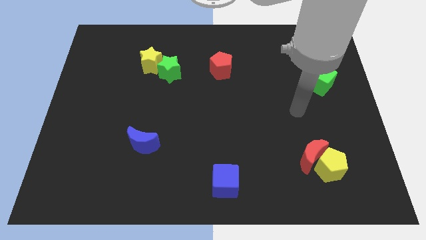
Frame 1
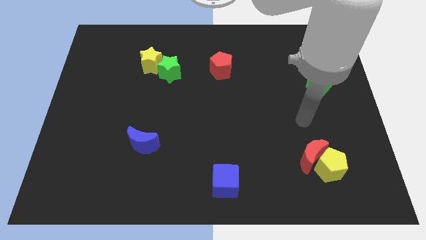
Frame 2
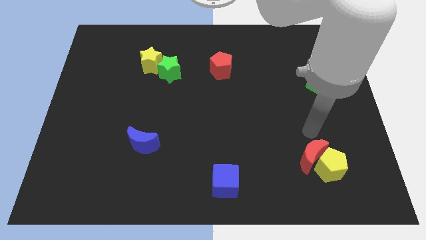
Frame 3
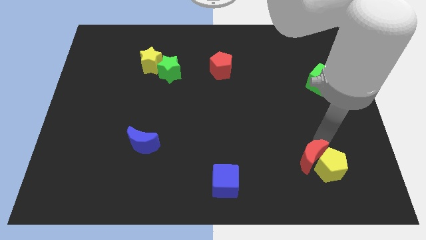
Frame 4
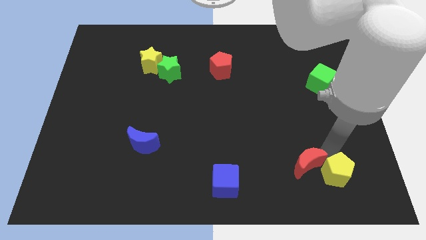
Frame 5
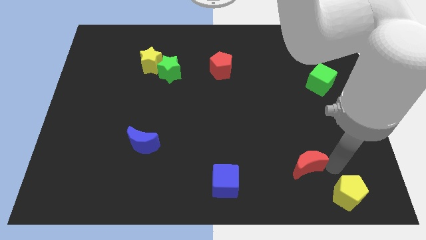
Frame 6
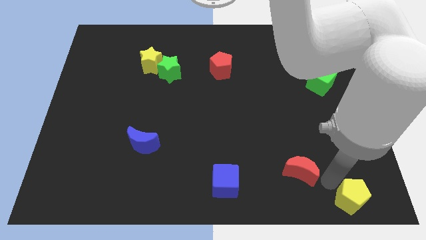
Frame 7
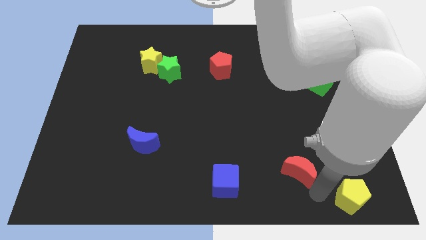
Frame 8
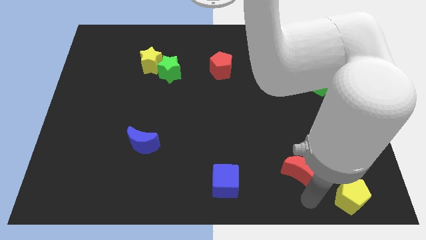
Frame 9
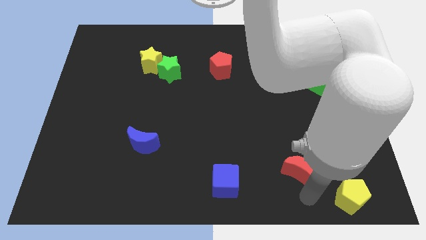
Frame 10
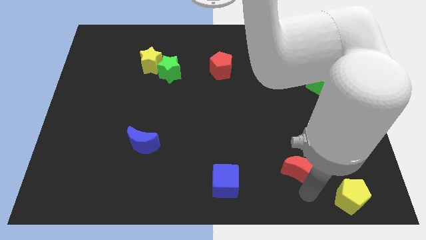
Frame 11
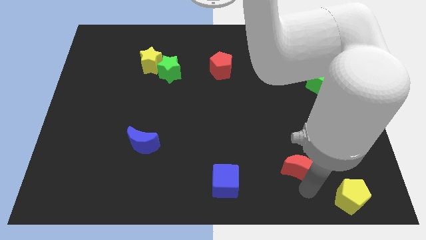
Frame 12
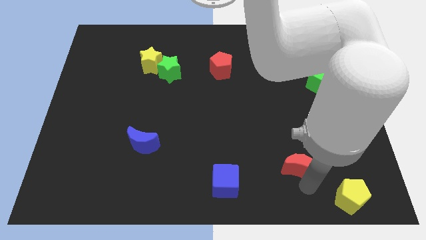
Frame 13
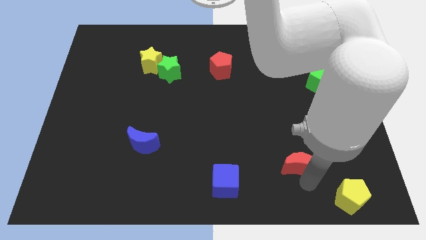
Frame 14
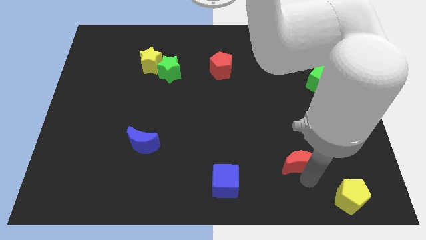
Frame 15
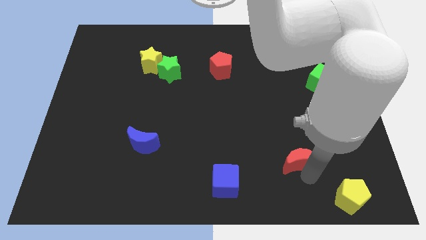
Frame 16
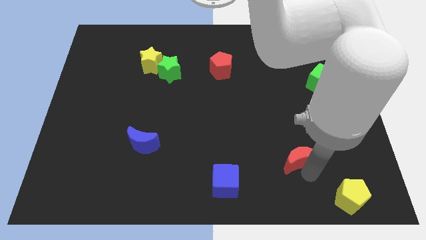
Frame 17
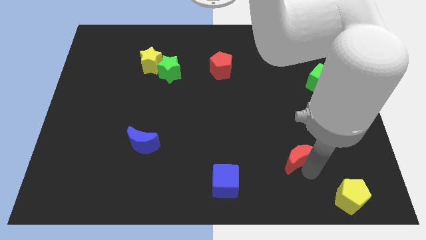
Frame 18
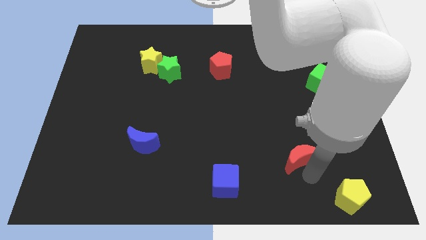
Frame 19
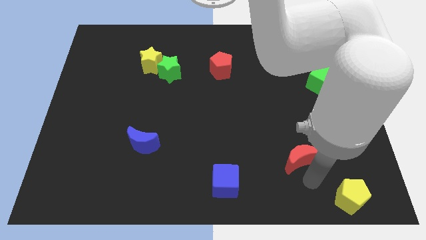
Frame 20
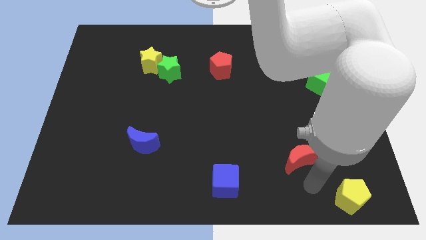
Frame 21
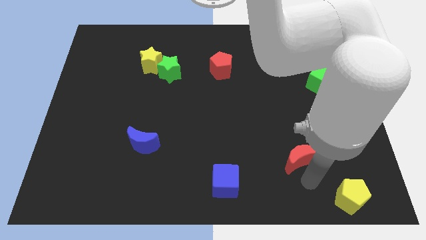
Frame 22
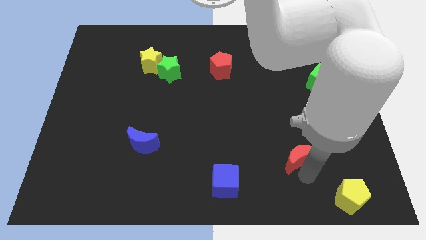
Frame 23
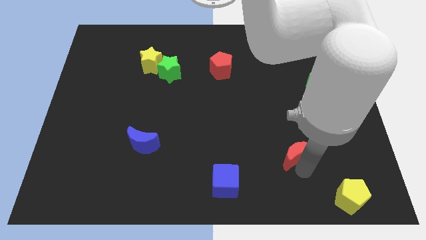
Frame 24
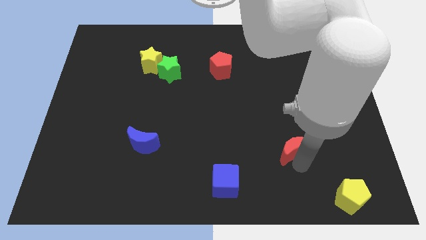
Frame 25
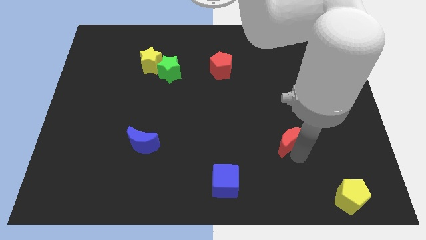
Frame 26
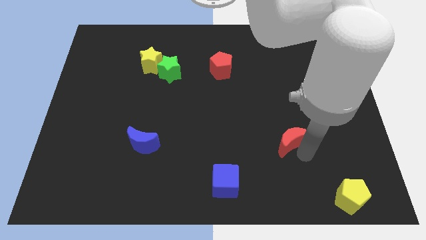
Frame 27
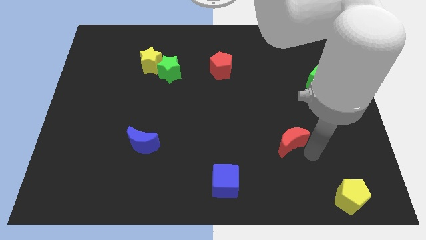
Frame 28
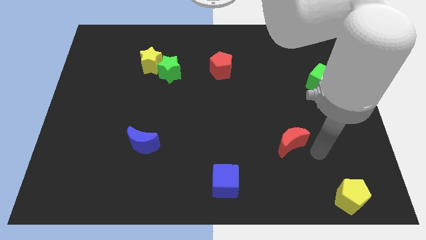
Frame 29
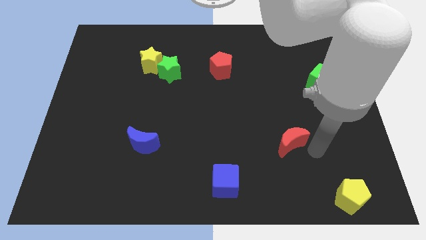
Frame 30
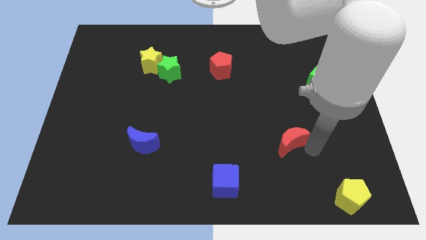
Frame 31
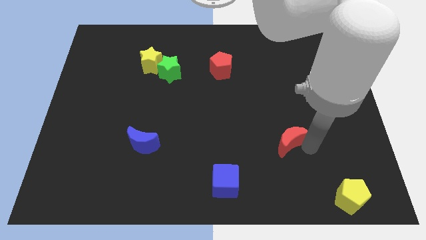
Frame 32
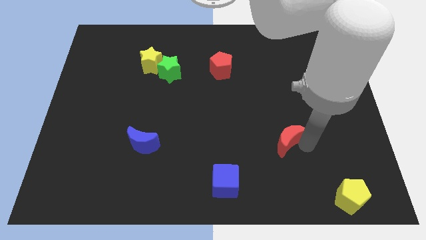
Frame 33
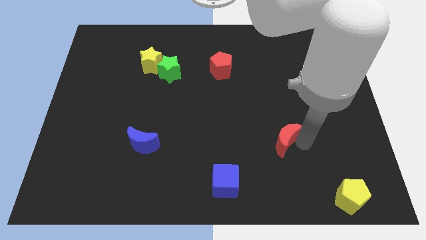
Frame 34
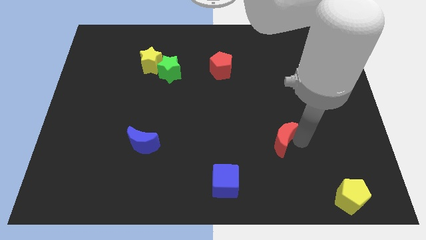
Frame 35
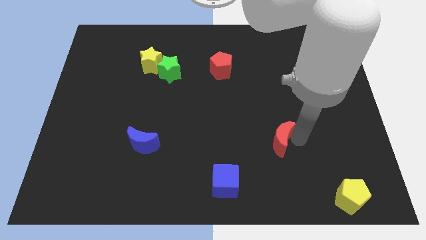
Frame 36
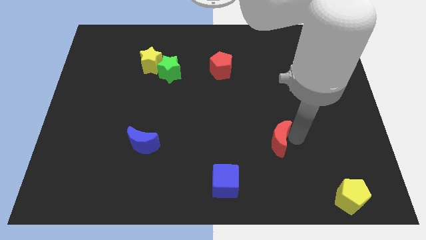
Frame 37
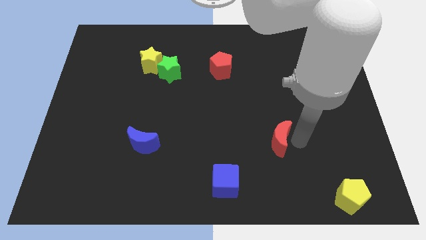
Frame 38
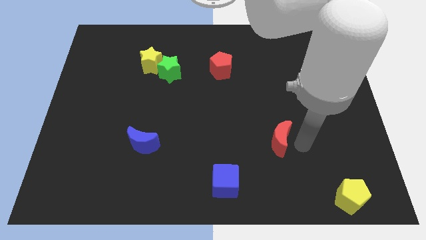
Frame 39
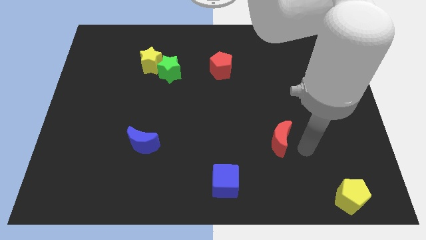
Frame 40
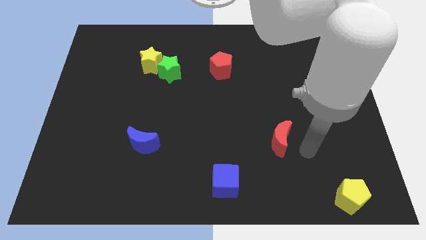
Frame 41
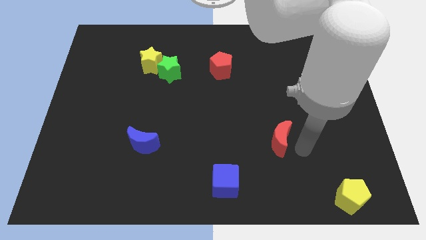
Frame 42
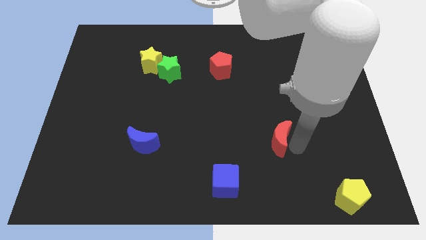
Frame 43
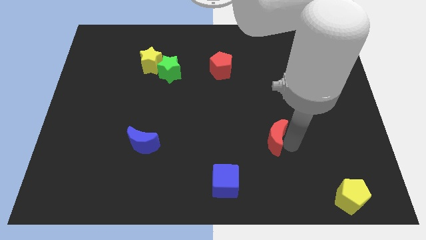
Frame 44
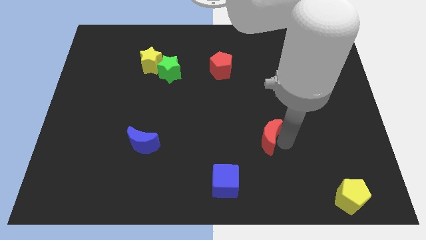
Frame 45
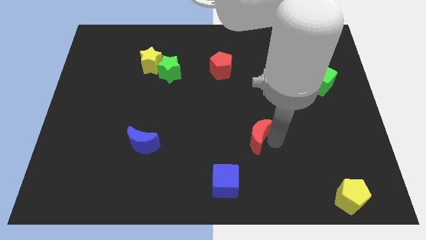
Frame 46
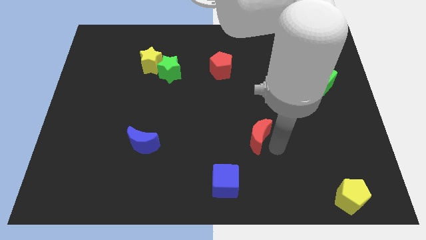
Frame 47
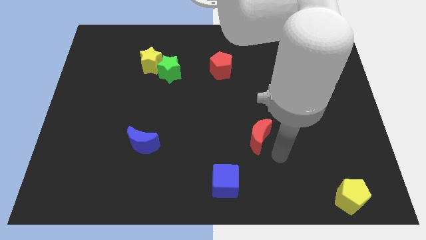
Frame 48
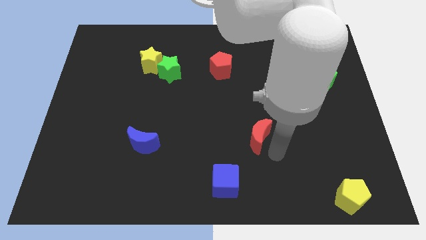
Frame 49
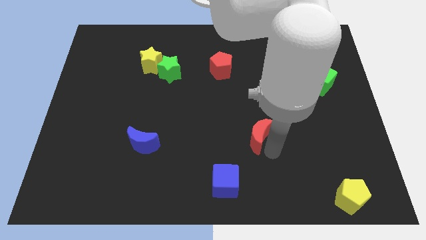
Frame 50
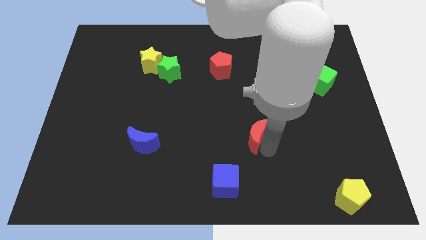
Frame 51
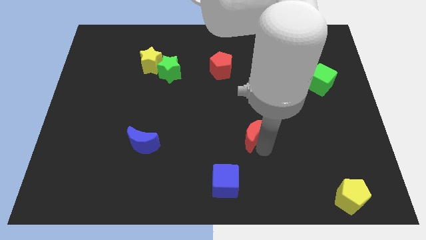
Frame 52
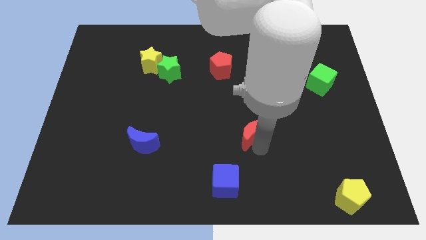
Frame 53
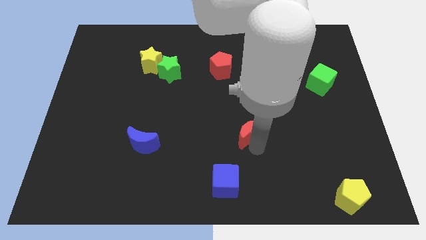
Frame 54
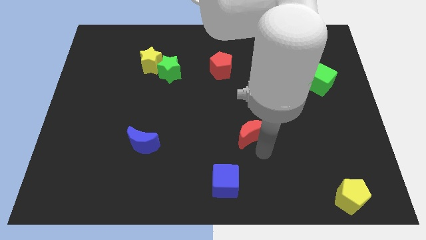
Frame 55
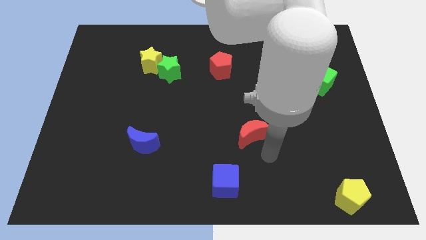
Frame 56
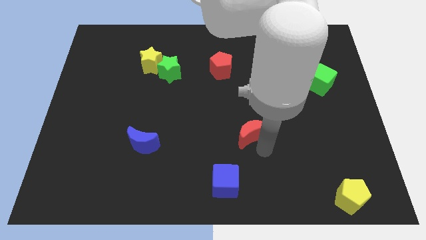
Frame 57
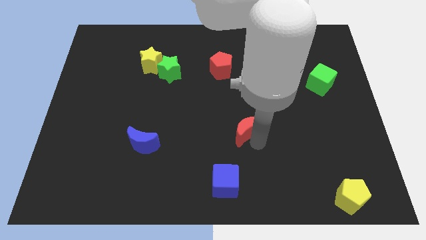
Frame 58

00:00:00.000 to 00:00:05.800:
push the red moon to the middle of the board

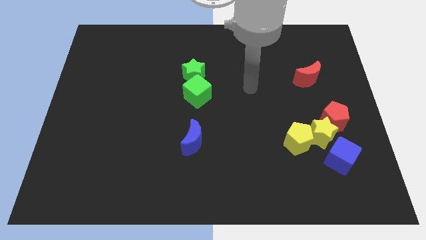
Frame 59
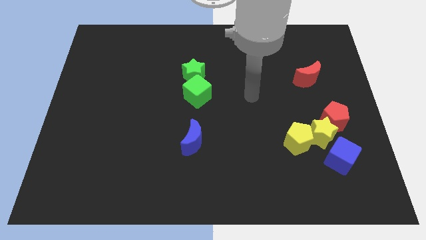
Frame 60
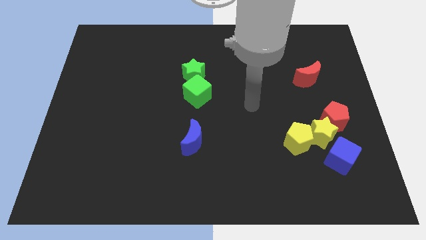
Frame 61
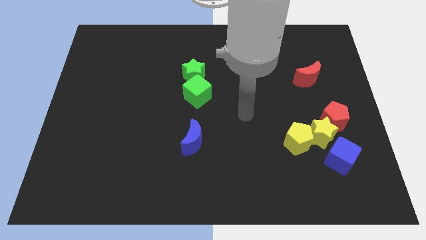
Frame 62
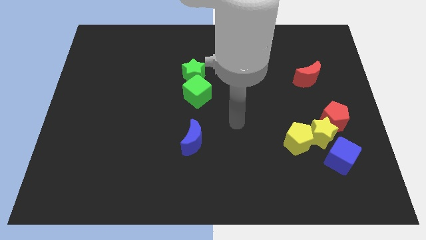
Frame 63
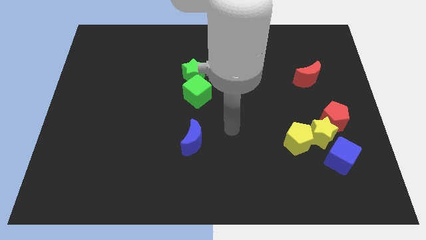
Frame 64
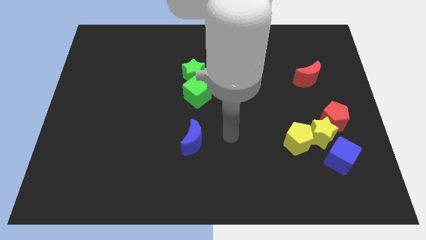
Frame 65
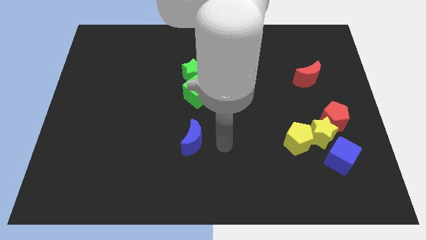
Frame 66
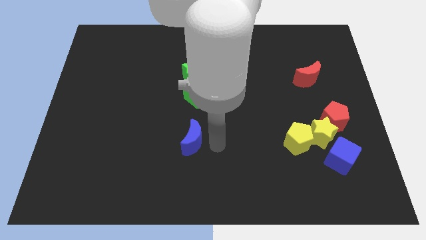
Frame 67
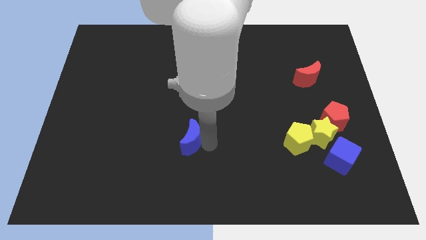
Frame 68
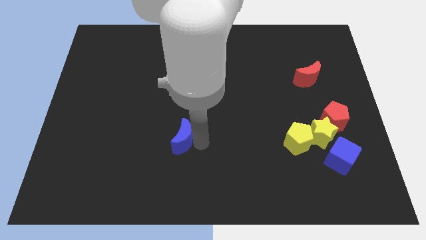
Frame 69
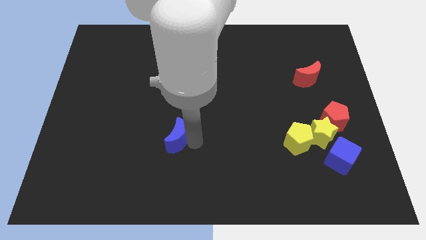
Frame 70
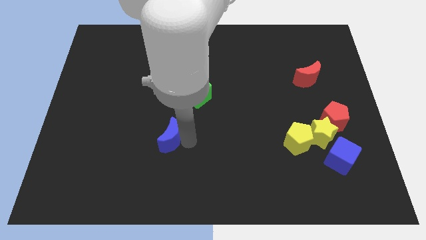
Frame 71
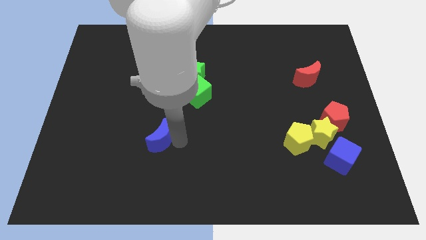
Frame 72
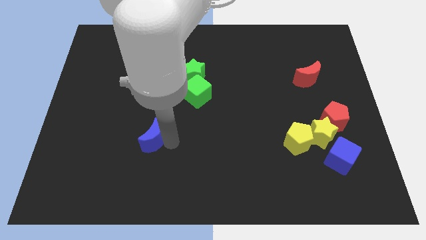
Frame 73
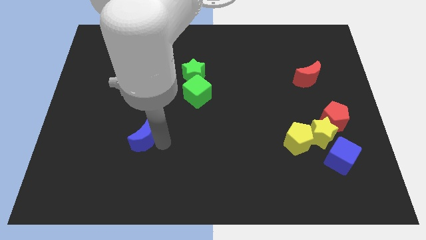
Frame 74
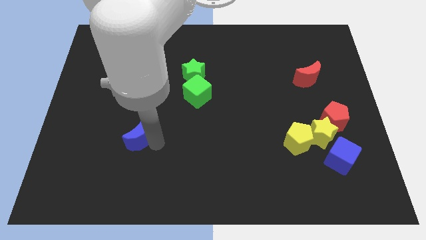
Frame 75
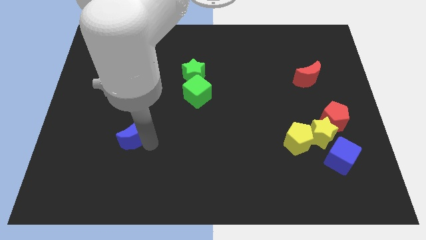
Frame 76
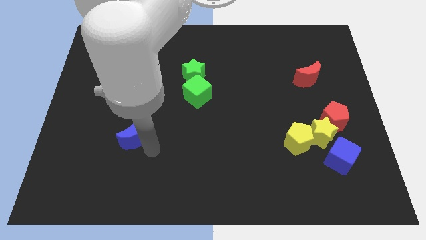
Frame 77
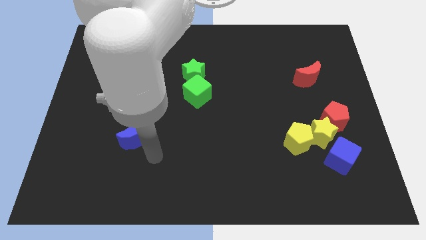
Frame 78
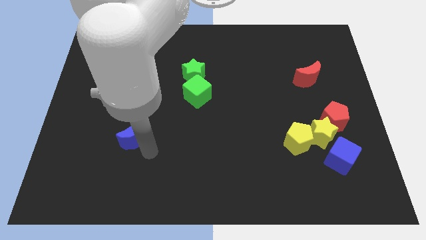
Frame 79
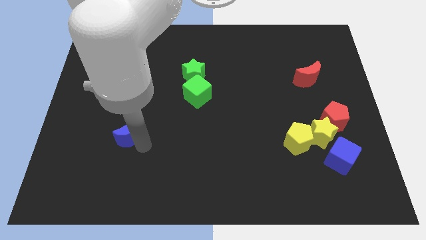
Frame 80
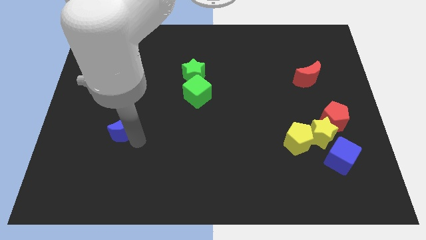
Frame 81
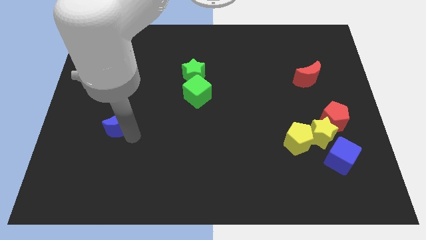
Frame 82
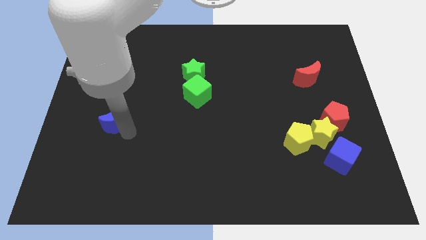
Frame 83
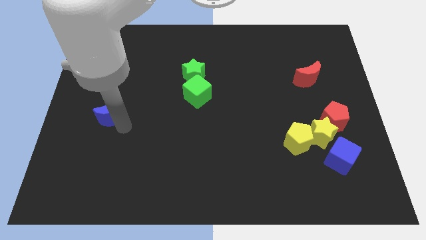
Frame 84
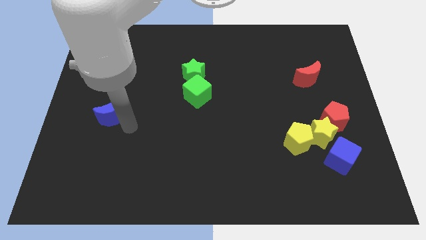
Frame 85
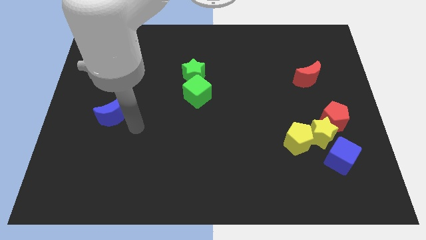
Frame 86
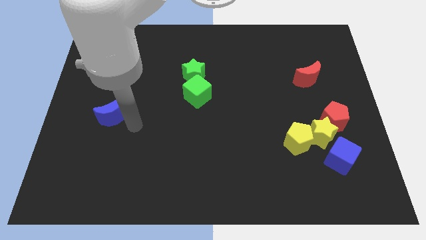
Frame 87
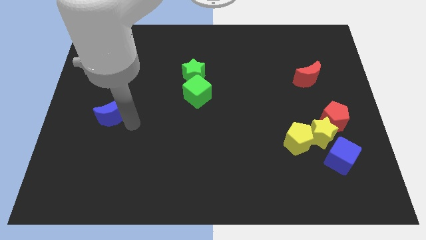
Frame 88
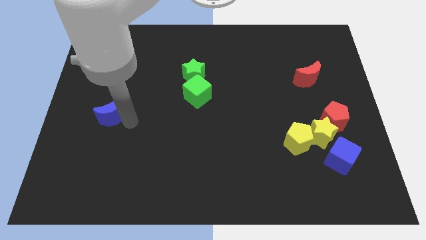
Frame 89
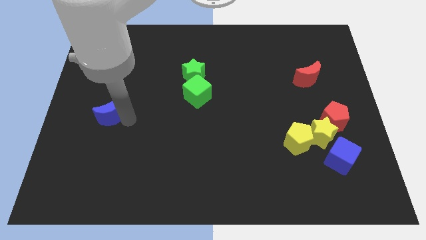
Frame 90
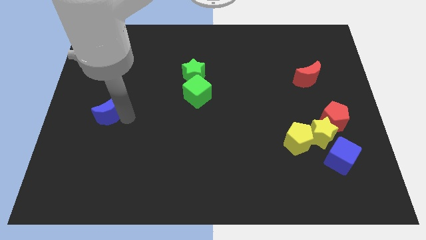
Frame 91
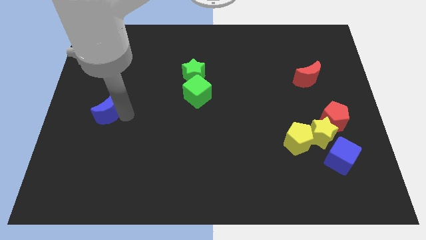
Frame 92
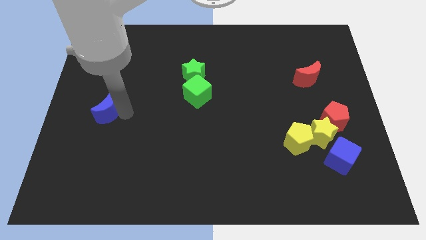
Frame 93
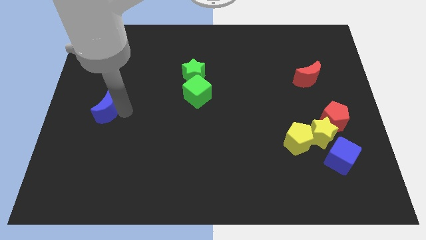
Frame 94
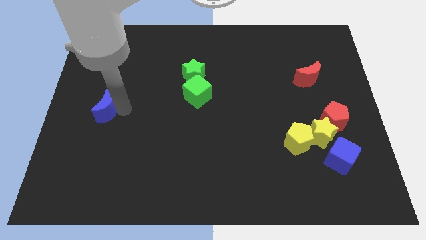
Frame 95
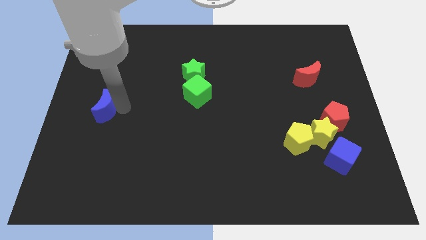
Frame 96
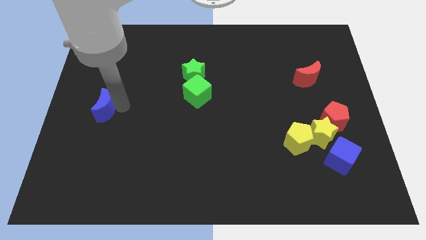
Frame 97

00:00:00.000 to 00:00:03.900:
move the blue moon to the left side of the board
